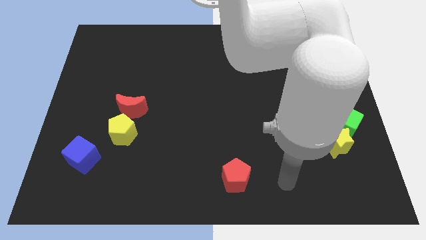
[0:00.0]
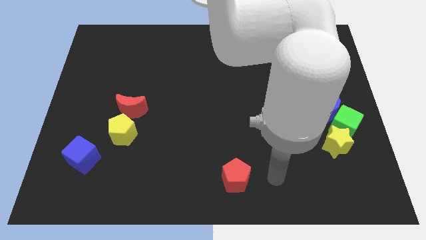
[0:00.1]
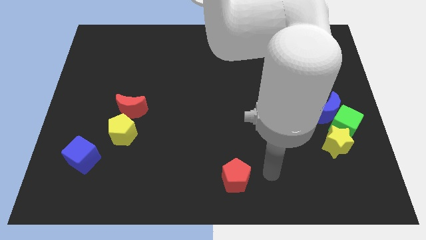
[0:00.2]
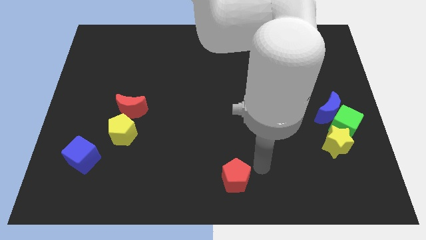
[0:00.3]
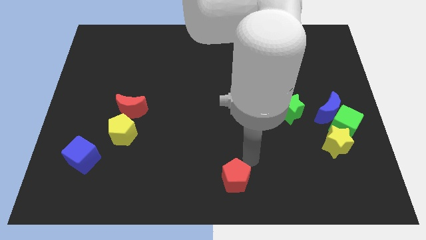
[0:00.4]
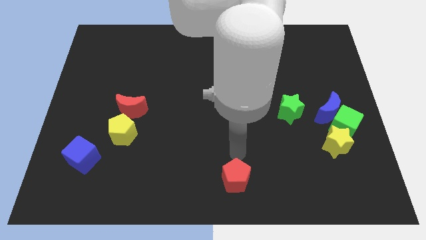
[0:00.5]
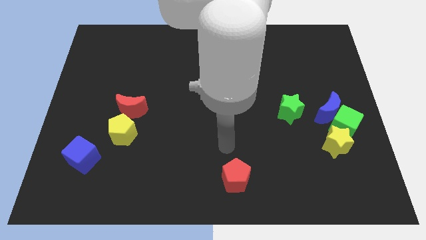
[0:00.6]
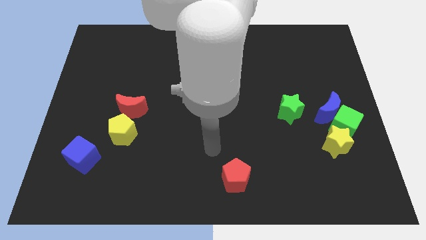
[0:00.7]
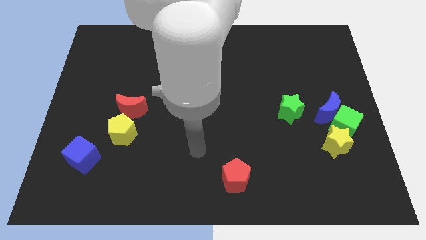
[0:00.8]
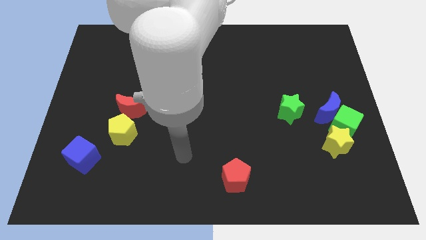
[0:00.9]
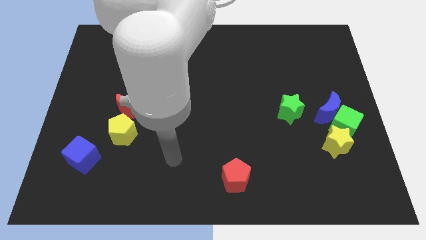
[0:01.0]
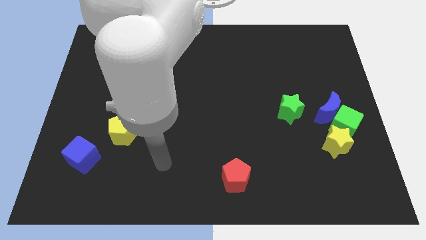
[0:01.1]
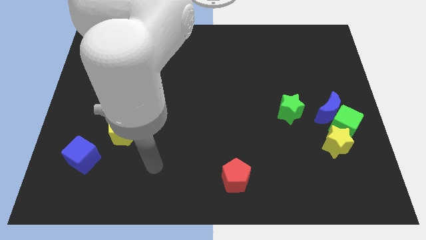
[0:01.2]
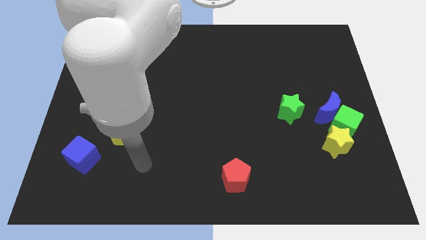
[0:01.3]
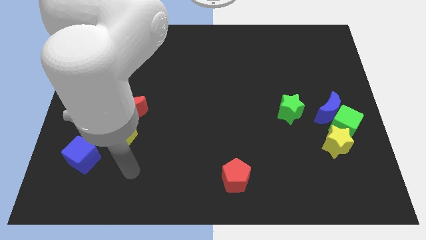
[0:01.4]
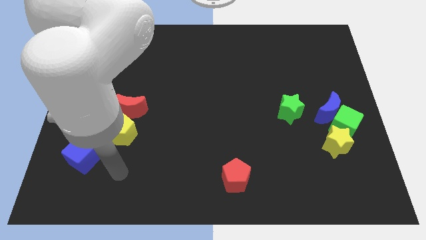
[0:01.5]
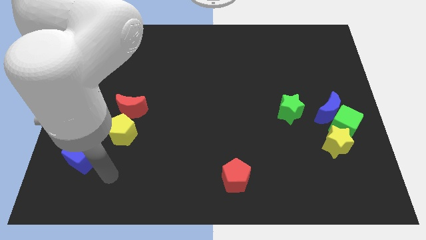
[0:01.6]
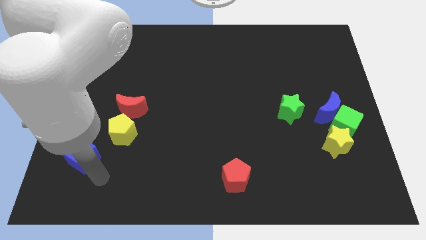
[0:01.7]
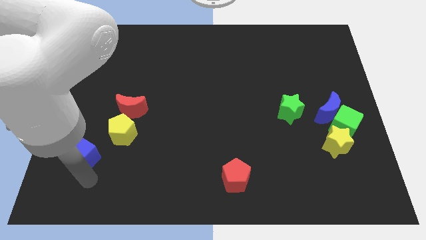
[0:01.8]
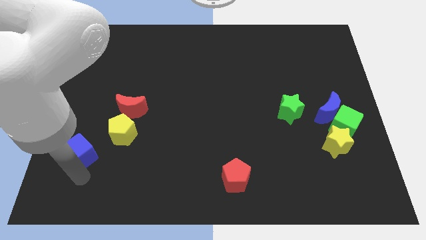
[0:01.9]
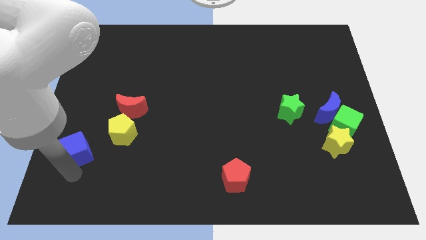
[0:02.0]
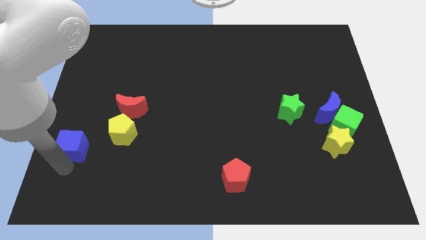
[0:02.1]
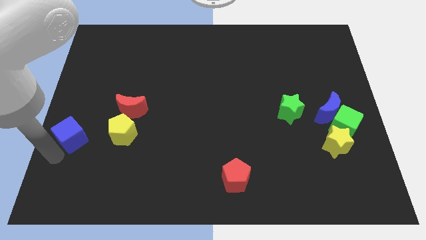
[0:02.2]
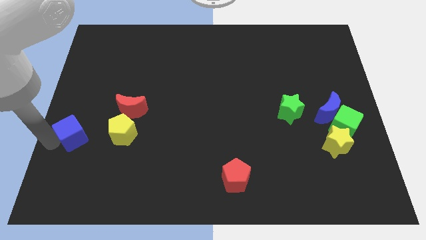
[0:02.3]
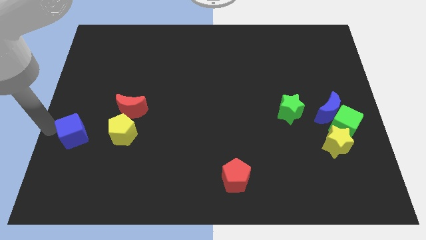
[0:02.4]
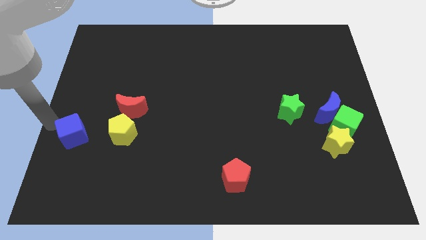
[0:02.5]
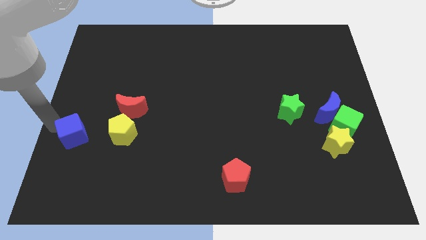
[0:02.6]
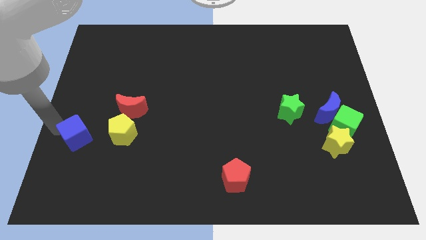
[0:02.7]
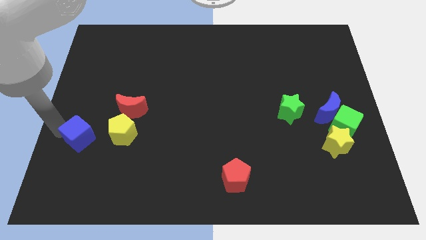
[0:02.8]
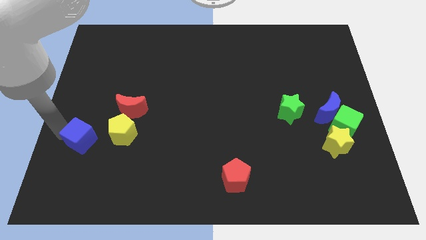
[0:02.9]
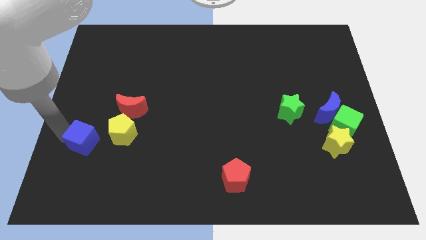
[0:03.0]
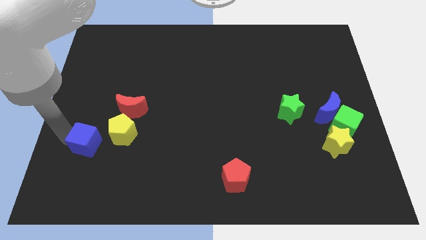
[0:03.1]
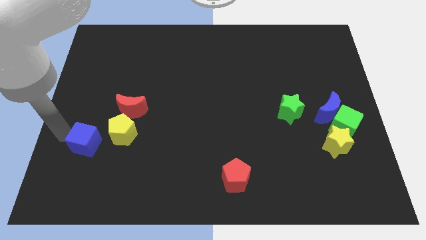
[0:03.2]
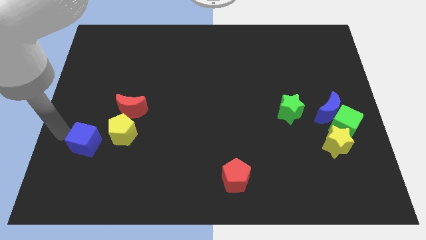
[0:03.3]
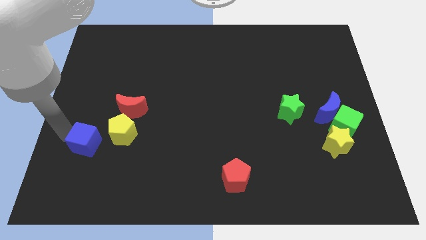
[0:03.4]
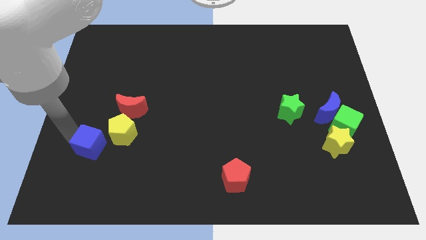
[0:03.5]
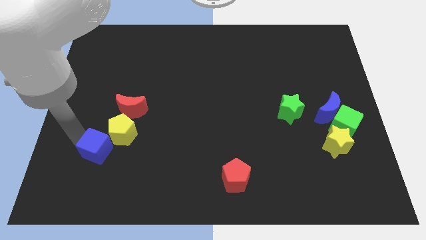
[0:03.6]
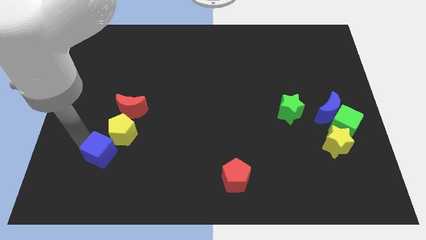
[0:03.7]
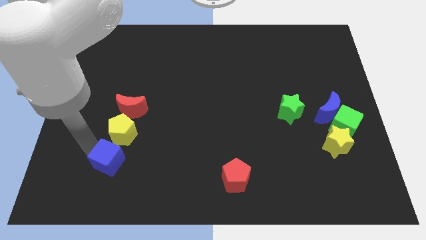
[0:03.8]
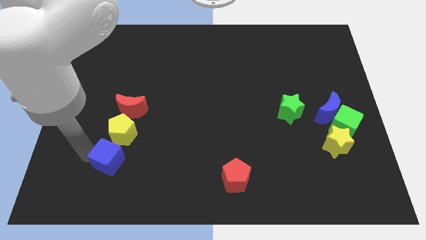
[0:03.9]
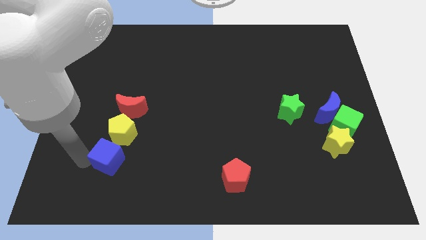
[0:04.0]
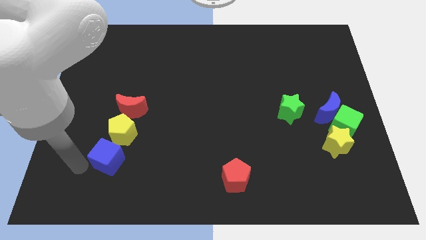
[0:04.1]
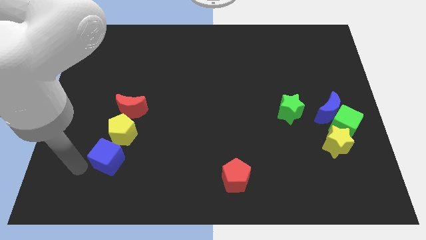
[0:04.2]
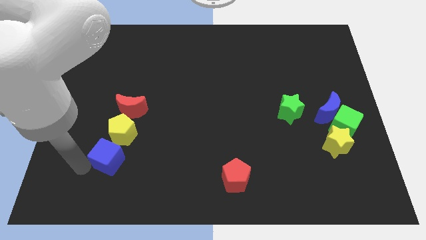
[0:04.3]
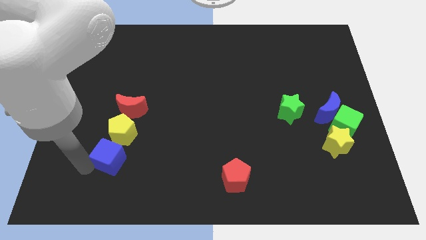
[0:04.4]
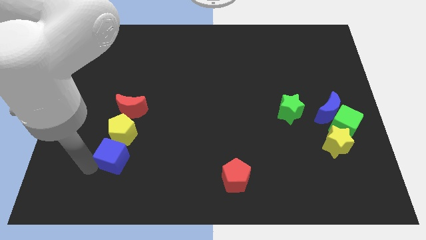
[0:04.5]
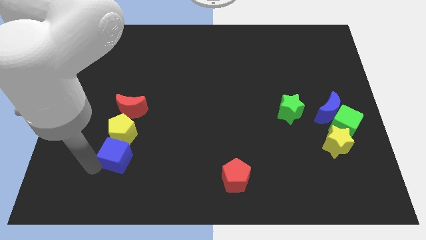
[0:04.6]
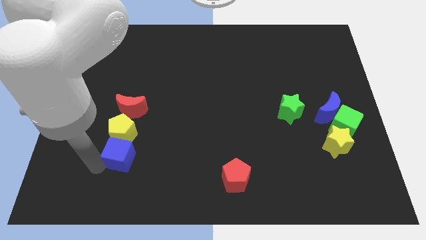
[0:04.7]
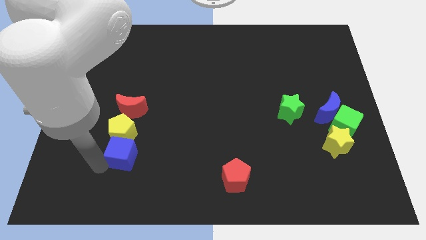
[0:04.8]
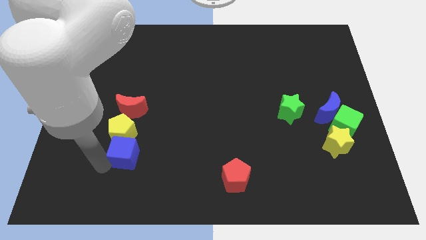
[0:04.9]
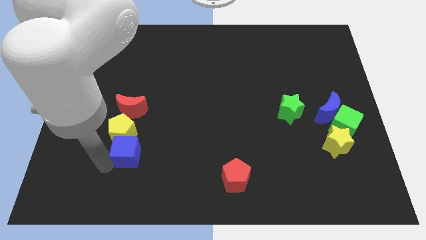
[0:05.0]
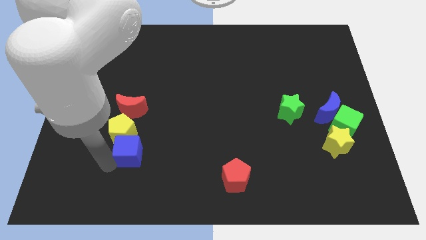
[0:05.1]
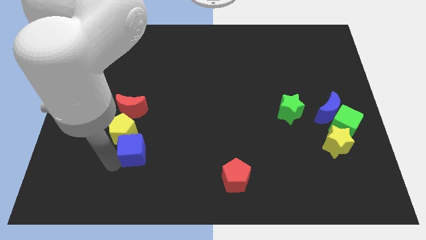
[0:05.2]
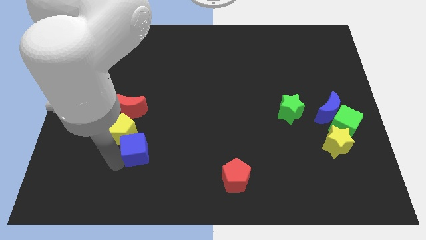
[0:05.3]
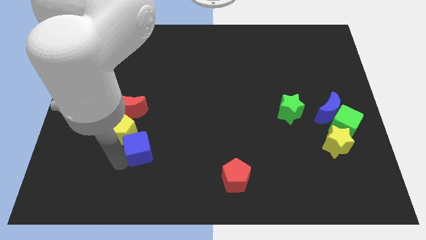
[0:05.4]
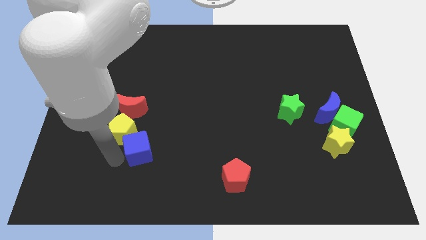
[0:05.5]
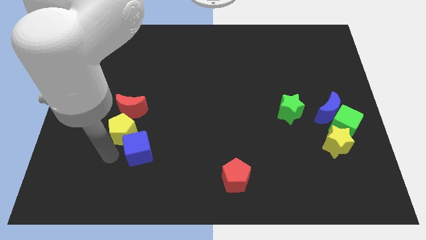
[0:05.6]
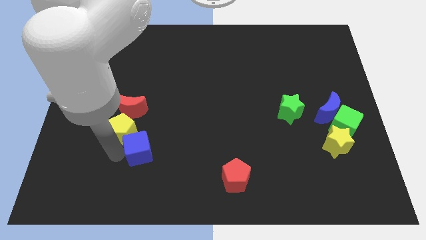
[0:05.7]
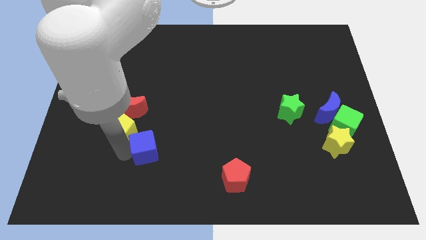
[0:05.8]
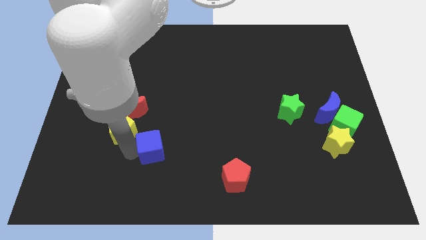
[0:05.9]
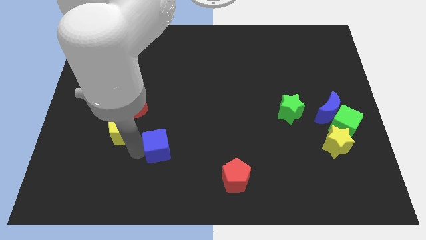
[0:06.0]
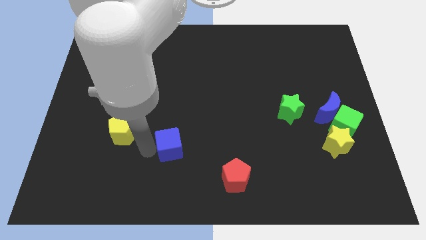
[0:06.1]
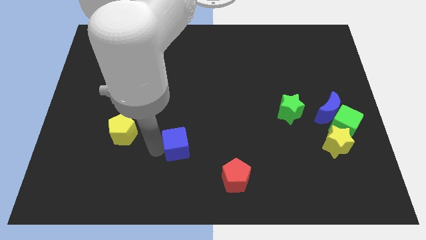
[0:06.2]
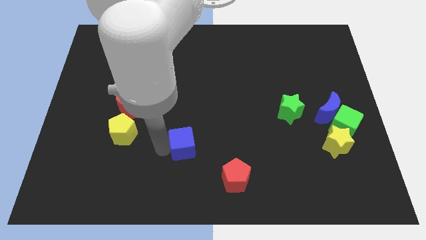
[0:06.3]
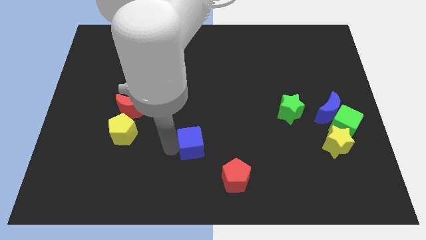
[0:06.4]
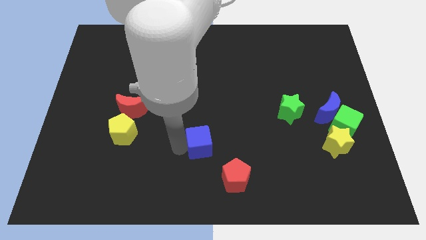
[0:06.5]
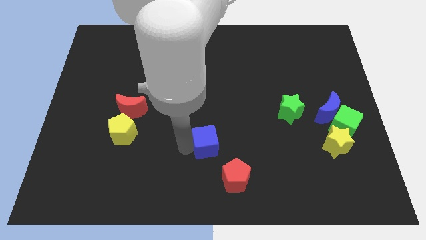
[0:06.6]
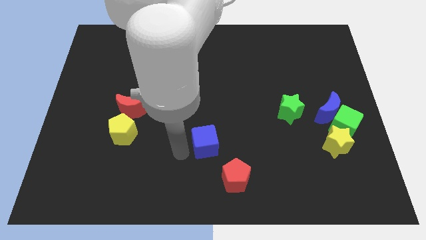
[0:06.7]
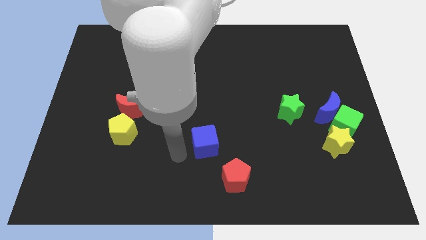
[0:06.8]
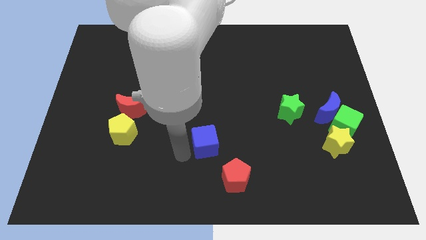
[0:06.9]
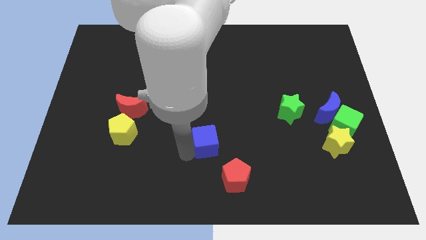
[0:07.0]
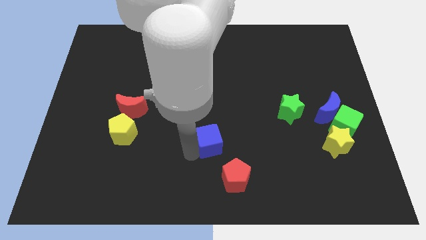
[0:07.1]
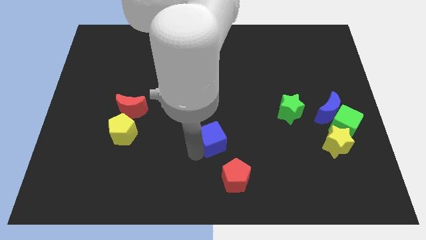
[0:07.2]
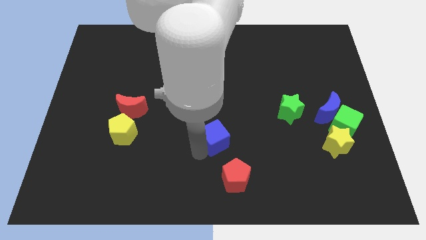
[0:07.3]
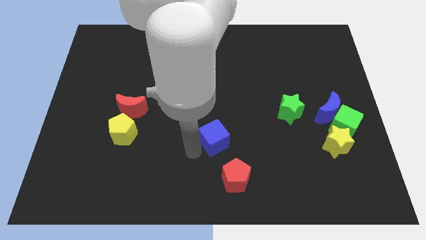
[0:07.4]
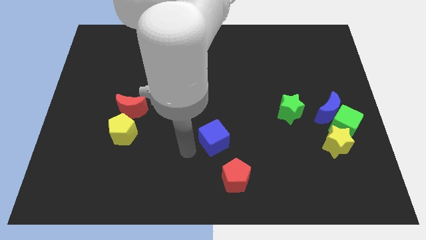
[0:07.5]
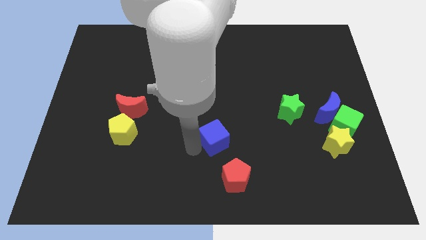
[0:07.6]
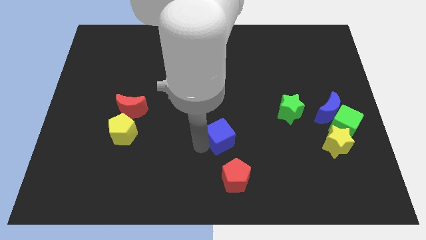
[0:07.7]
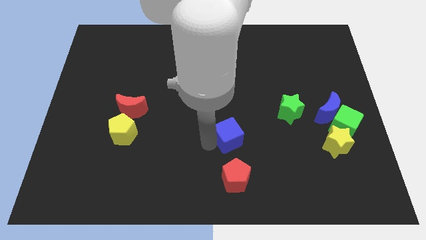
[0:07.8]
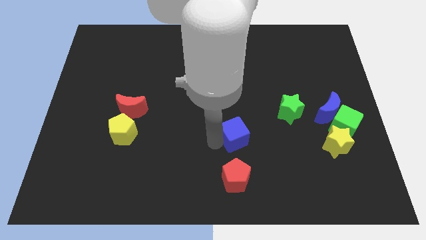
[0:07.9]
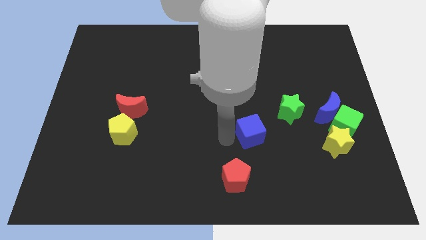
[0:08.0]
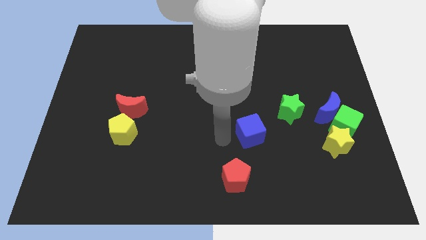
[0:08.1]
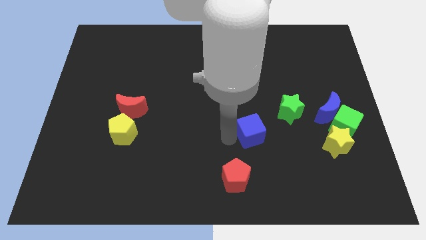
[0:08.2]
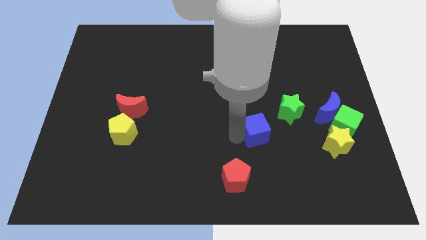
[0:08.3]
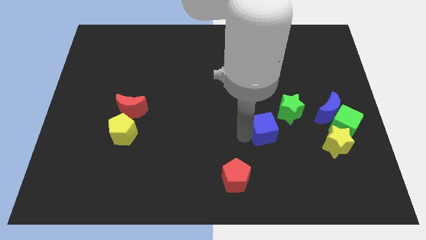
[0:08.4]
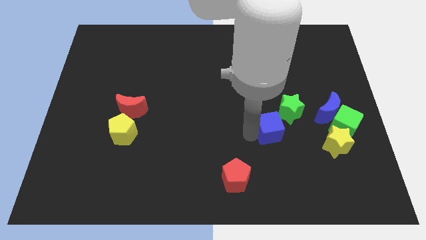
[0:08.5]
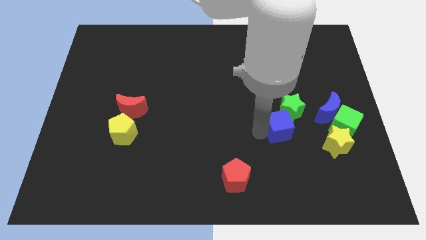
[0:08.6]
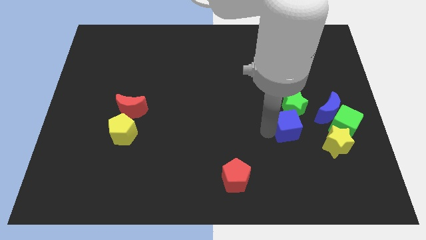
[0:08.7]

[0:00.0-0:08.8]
put the blue cube to the top left side of the yellow star
